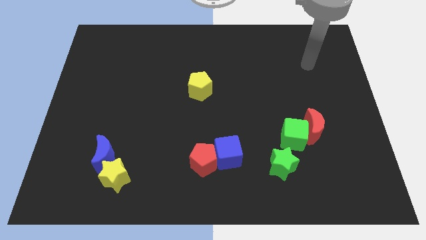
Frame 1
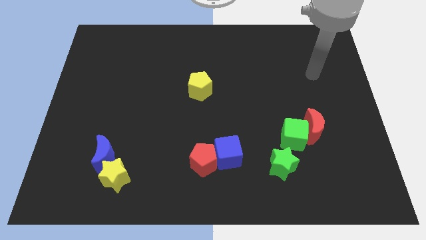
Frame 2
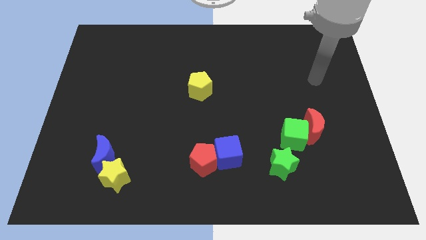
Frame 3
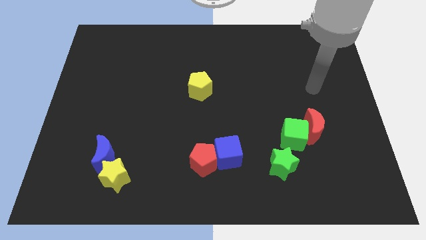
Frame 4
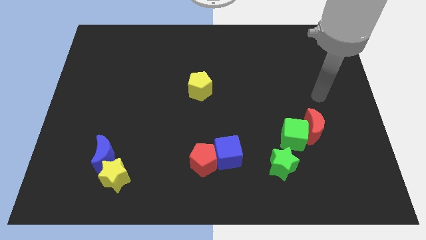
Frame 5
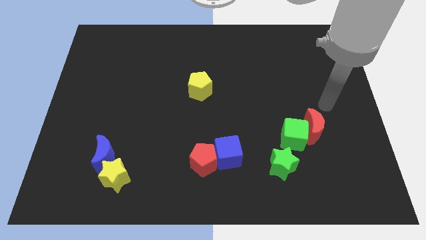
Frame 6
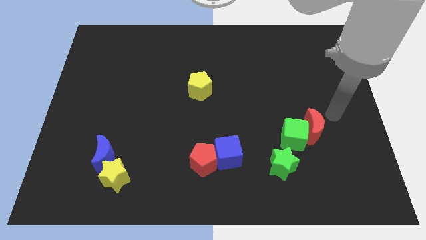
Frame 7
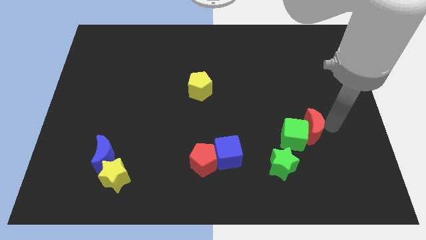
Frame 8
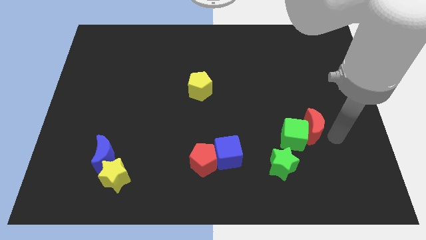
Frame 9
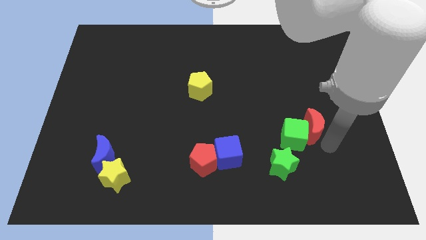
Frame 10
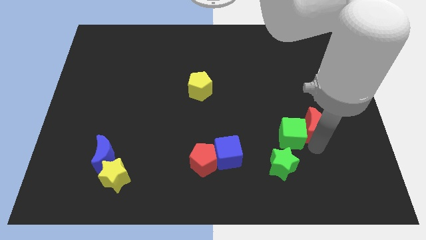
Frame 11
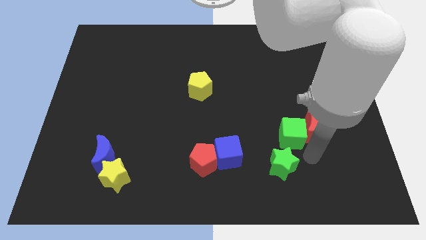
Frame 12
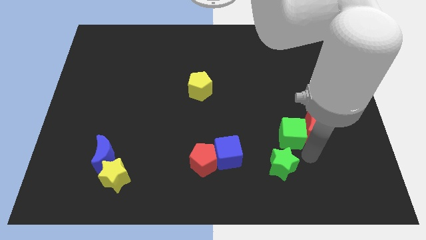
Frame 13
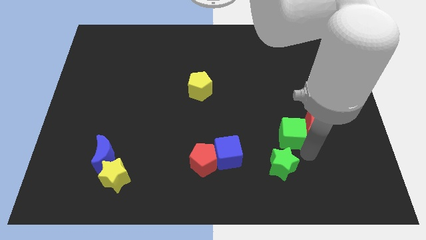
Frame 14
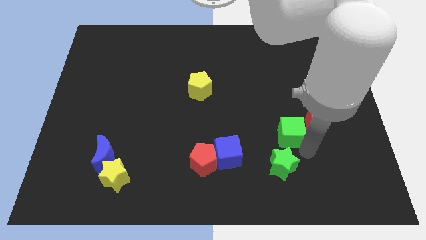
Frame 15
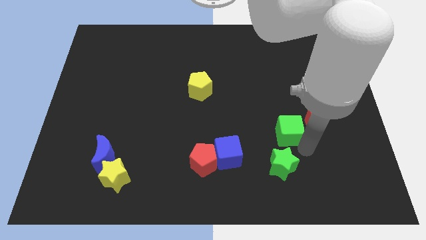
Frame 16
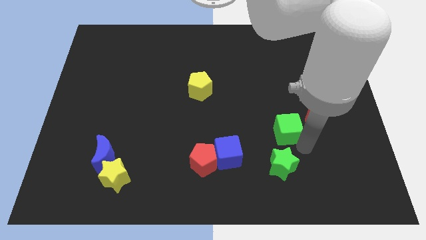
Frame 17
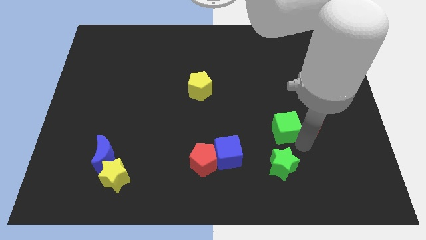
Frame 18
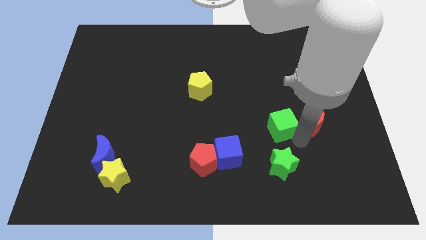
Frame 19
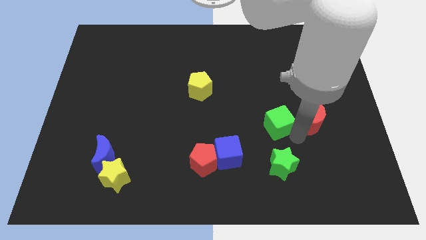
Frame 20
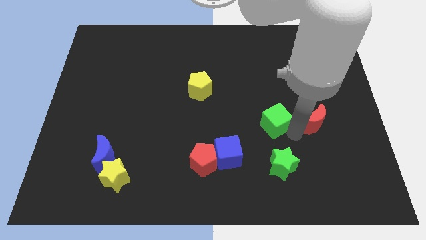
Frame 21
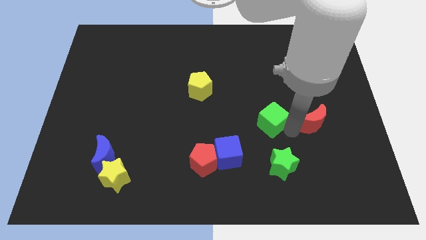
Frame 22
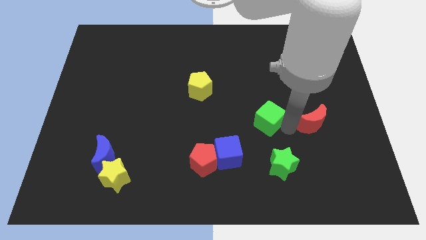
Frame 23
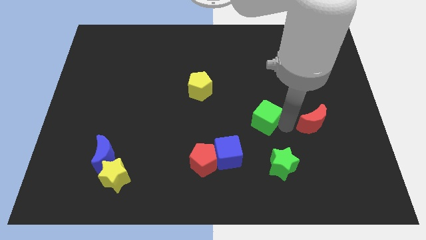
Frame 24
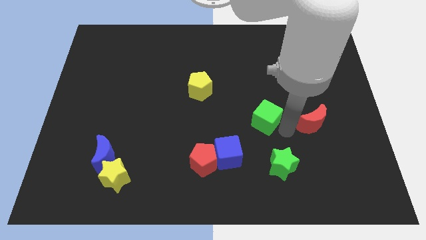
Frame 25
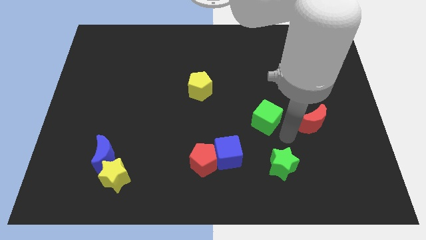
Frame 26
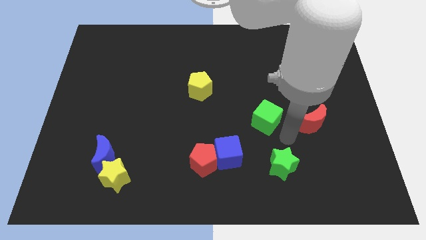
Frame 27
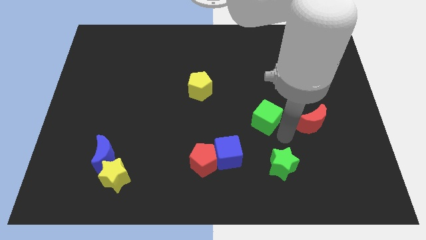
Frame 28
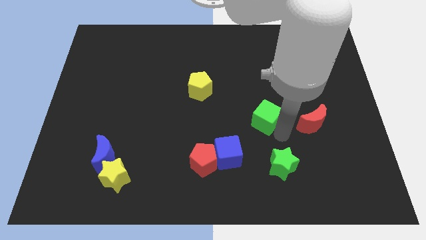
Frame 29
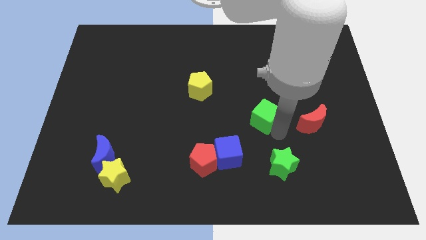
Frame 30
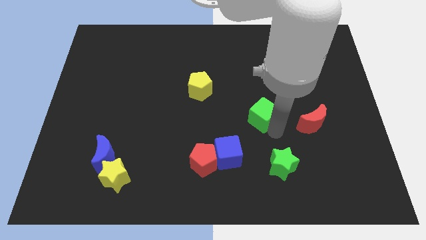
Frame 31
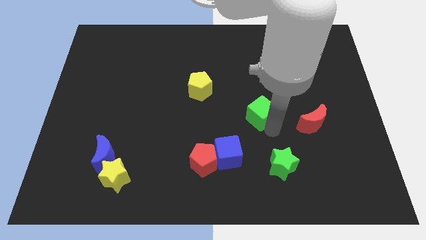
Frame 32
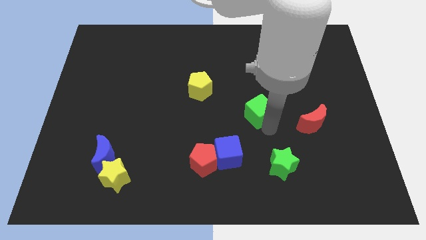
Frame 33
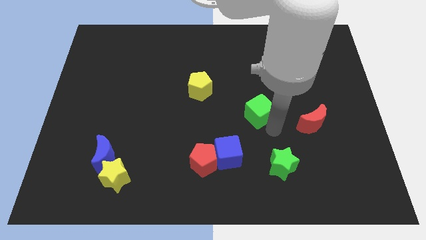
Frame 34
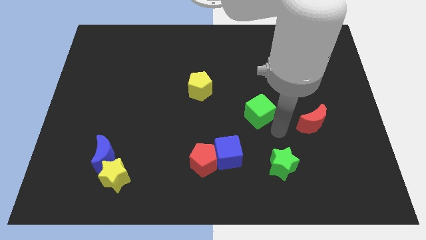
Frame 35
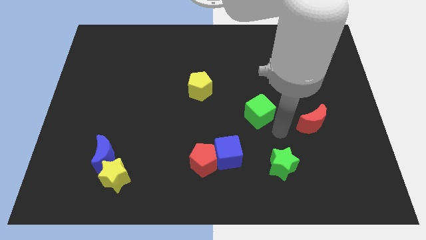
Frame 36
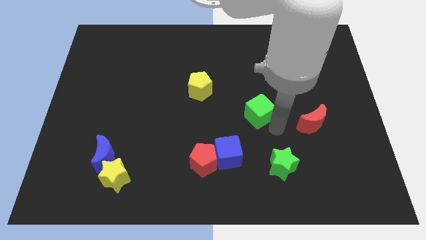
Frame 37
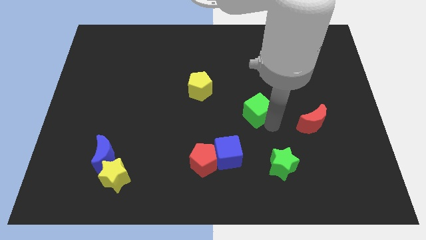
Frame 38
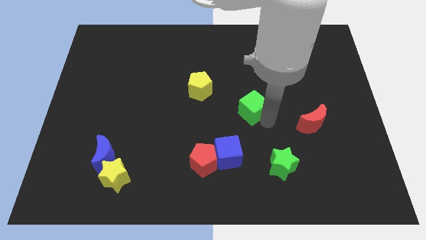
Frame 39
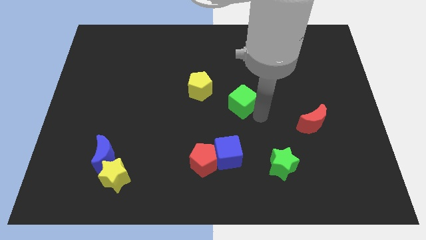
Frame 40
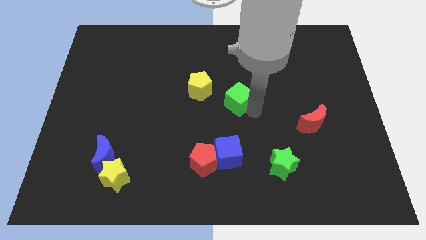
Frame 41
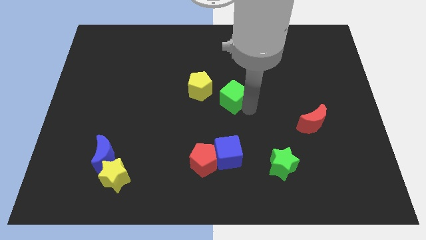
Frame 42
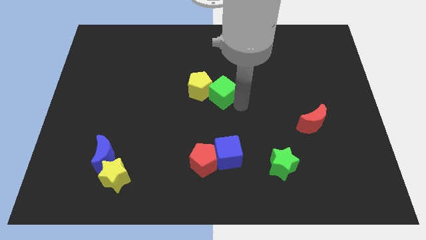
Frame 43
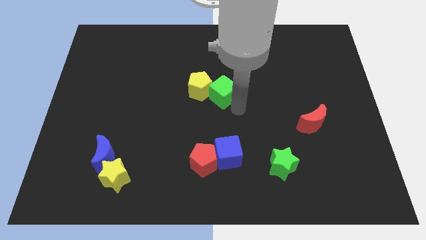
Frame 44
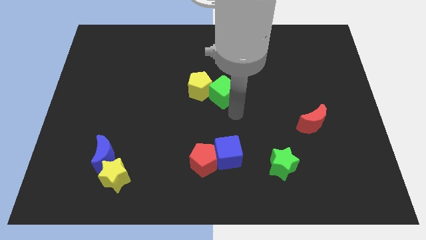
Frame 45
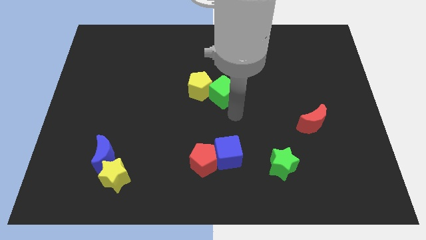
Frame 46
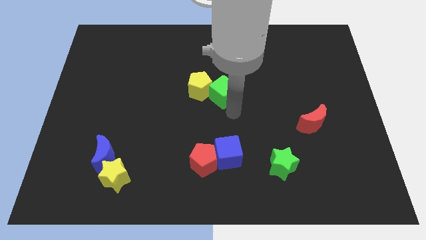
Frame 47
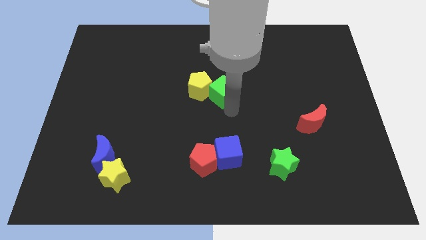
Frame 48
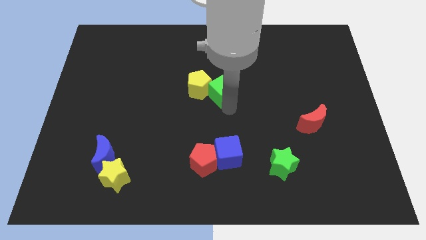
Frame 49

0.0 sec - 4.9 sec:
push the green cube diagonally upwards and to the left

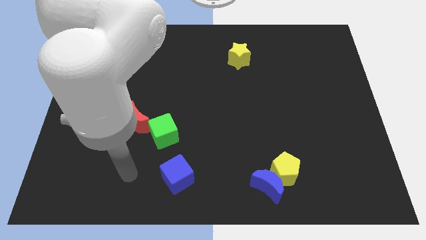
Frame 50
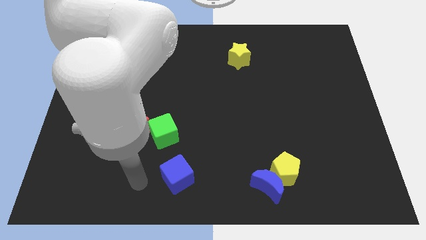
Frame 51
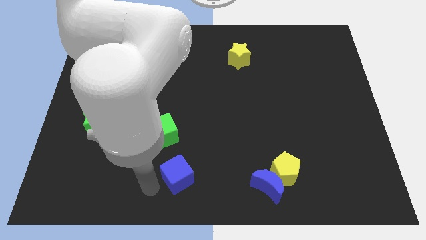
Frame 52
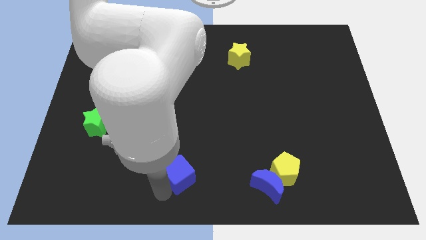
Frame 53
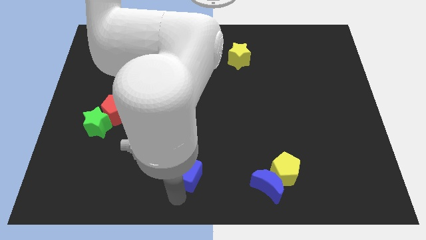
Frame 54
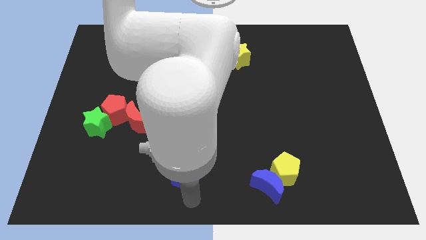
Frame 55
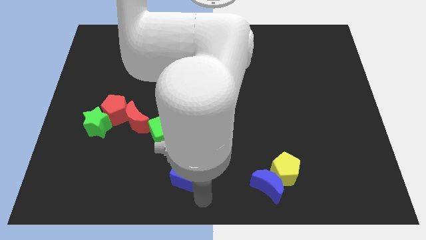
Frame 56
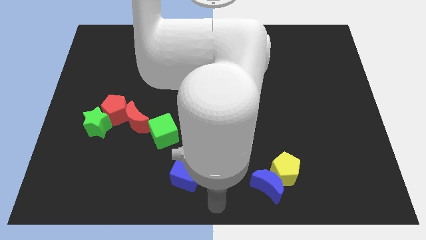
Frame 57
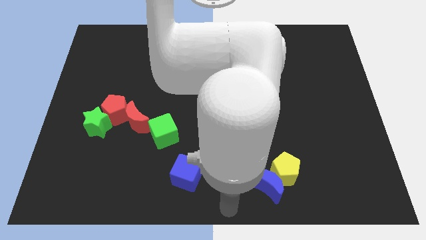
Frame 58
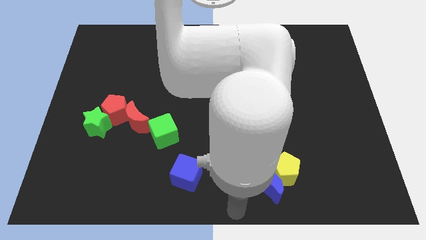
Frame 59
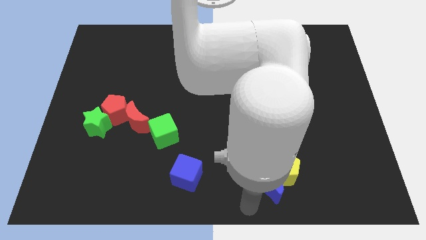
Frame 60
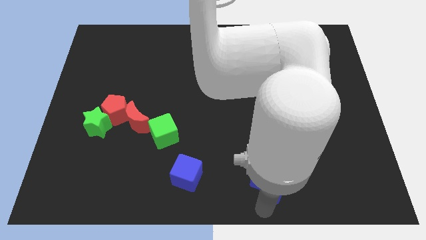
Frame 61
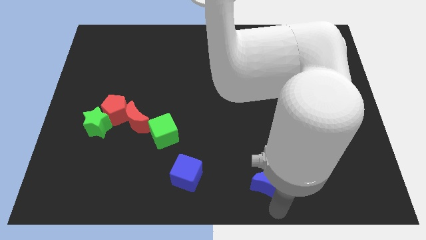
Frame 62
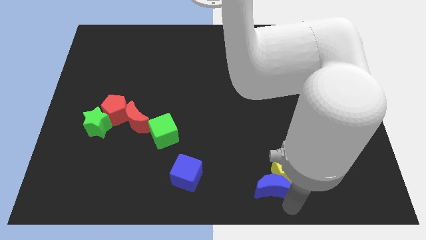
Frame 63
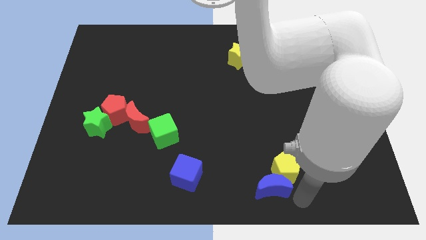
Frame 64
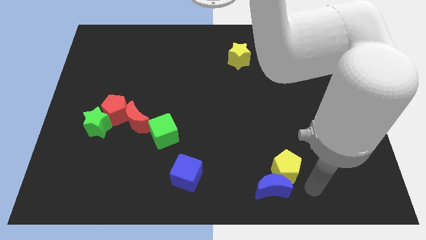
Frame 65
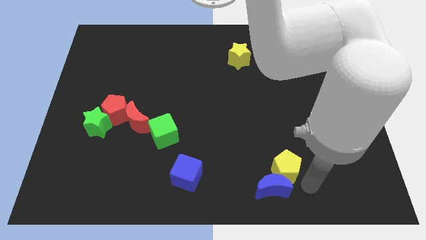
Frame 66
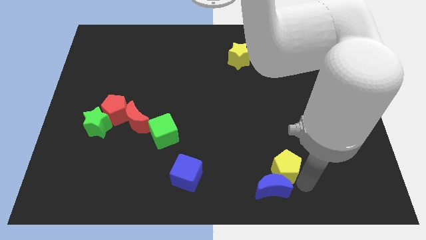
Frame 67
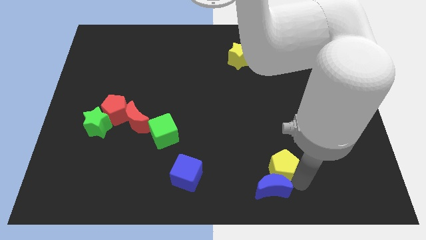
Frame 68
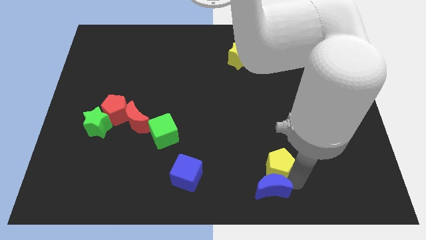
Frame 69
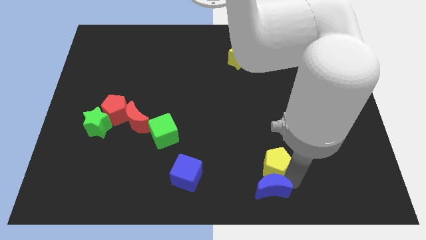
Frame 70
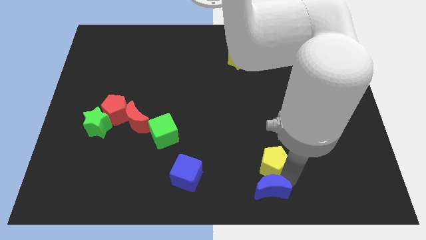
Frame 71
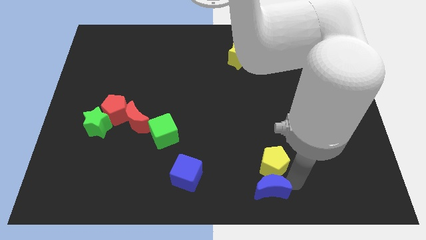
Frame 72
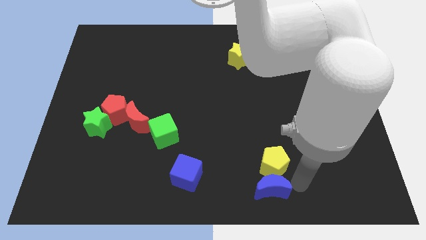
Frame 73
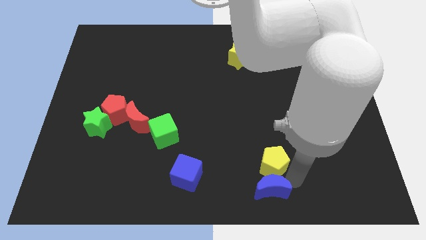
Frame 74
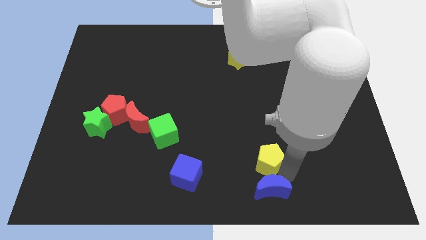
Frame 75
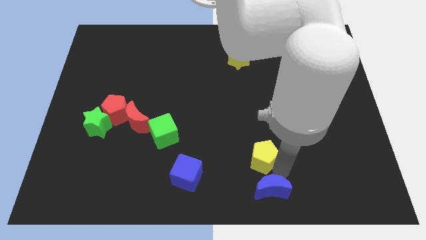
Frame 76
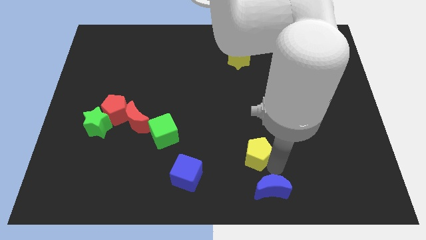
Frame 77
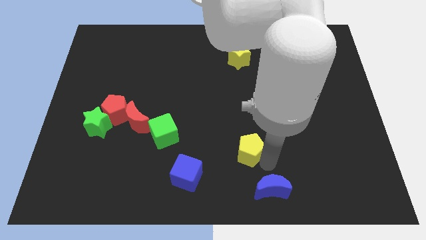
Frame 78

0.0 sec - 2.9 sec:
slide the yellow pentagon diagonally upwards and left somewhat
